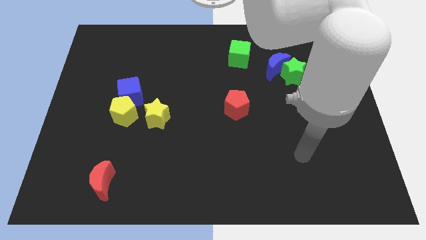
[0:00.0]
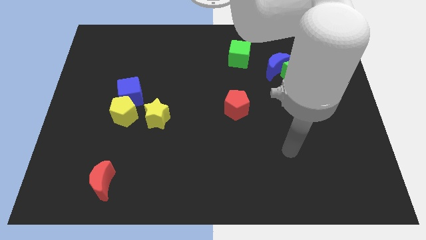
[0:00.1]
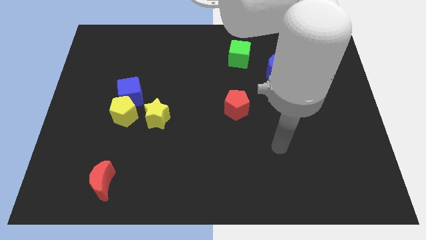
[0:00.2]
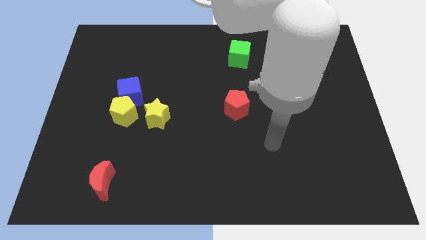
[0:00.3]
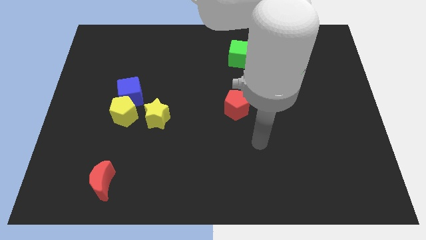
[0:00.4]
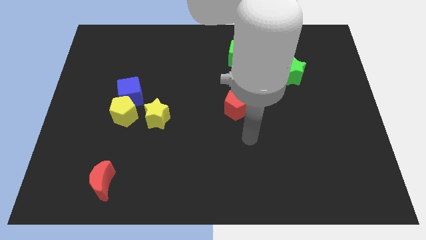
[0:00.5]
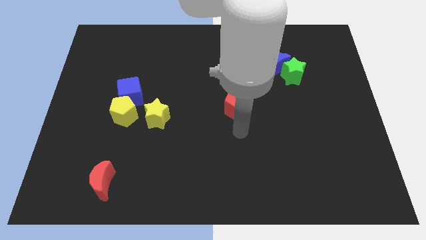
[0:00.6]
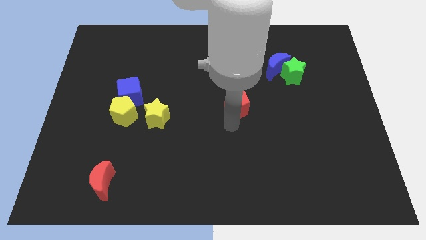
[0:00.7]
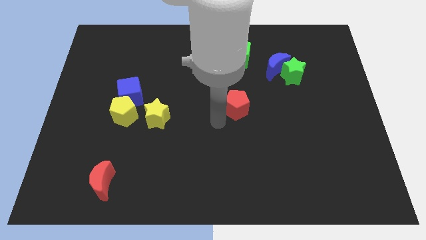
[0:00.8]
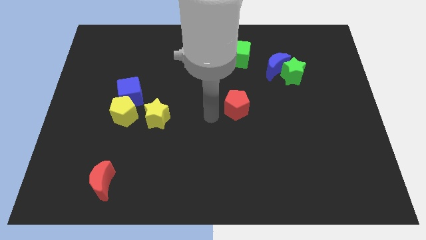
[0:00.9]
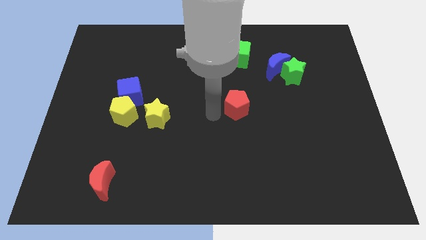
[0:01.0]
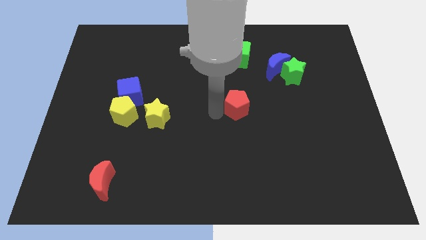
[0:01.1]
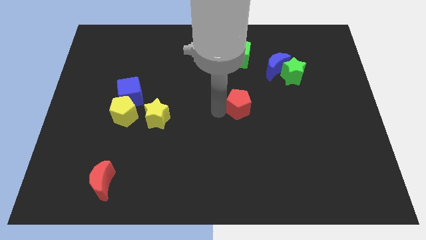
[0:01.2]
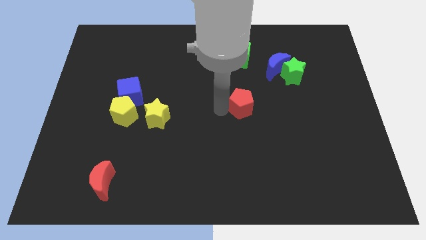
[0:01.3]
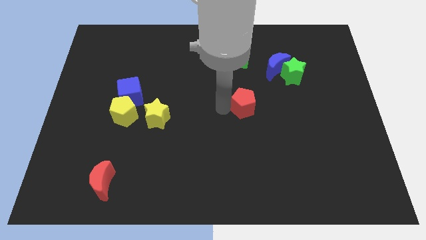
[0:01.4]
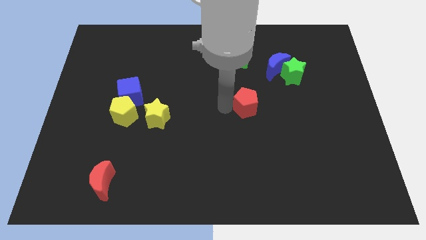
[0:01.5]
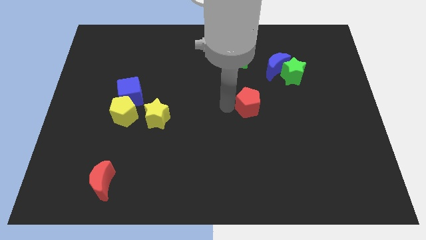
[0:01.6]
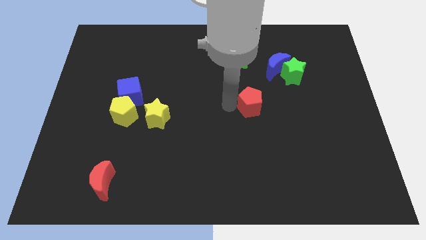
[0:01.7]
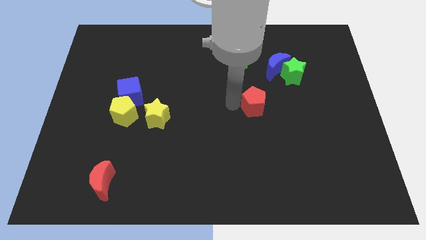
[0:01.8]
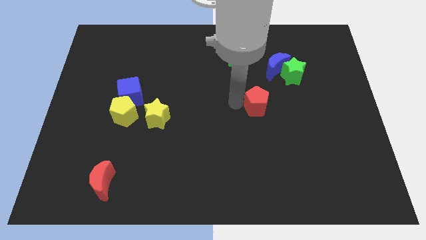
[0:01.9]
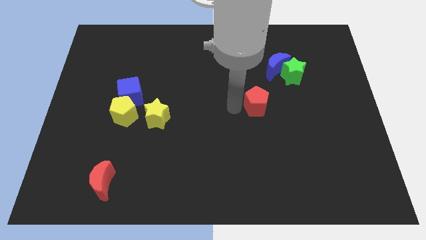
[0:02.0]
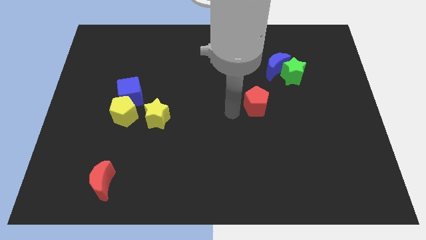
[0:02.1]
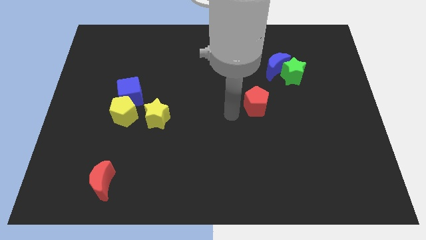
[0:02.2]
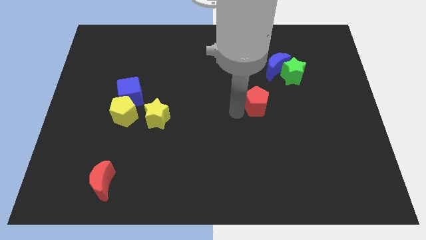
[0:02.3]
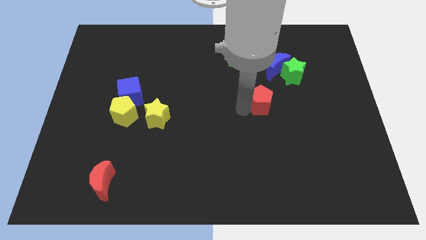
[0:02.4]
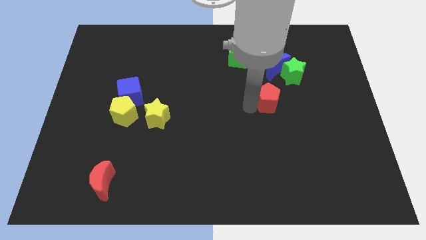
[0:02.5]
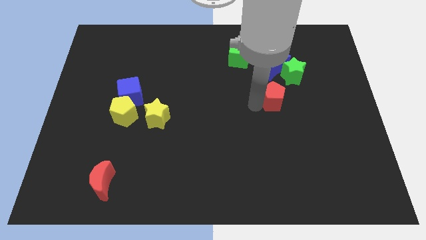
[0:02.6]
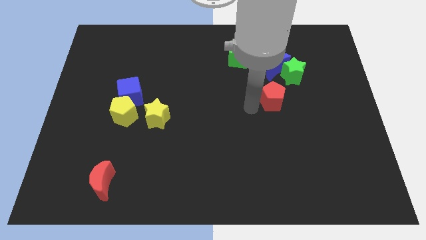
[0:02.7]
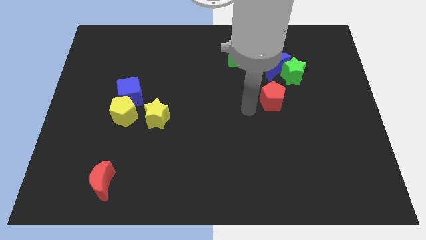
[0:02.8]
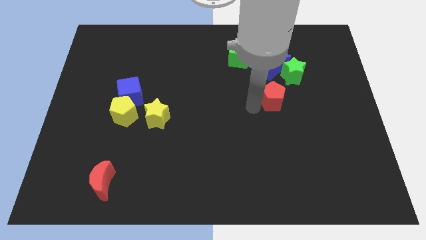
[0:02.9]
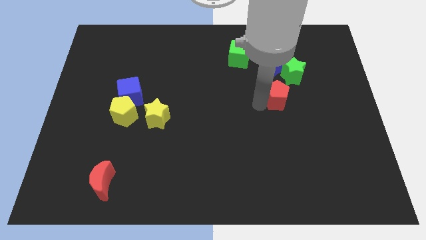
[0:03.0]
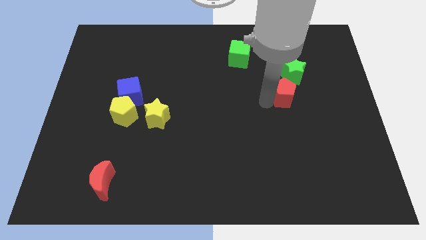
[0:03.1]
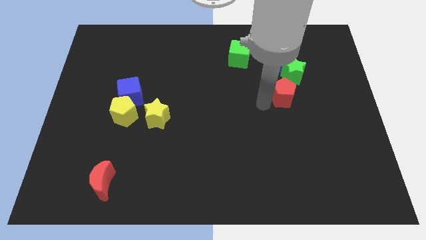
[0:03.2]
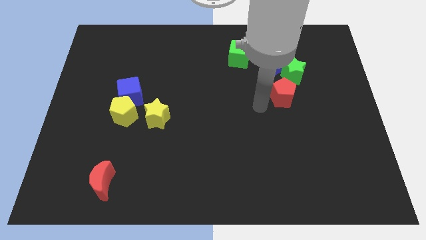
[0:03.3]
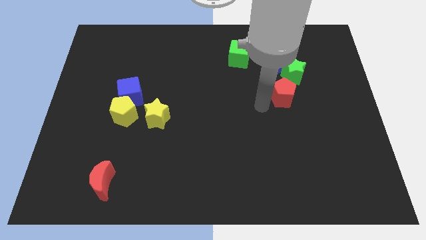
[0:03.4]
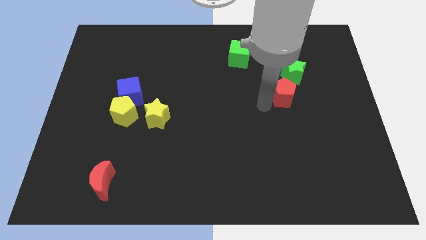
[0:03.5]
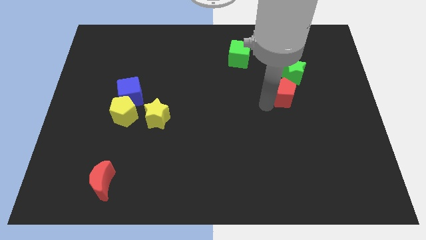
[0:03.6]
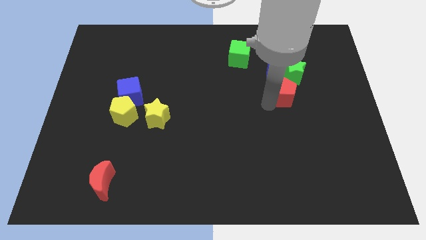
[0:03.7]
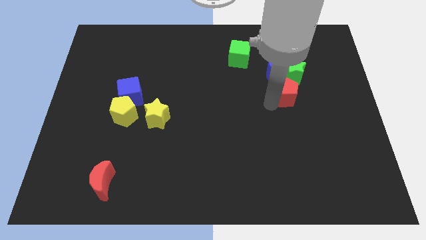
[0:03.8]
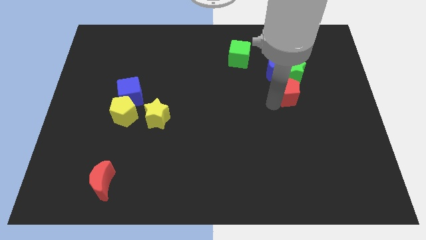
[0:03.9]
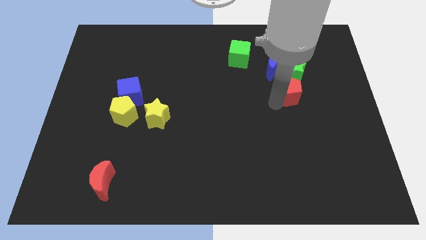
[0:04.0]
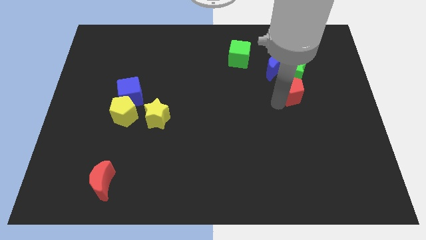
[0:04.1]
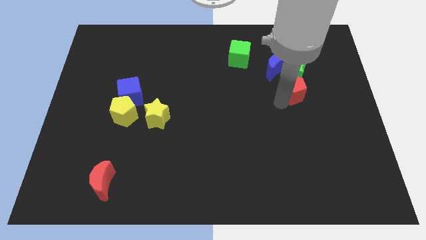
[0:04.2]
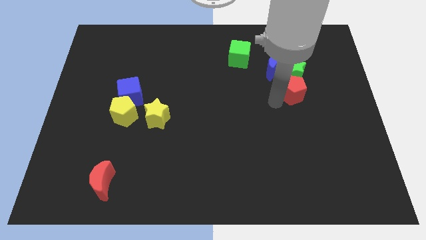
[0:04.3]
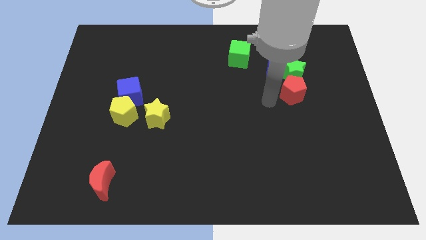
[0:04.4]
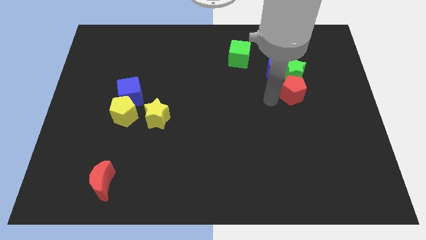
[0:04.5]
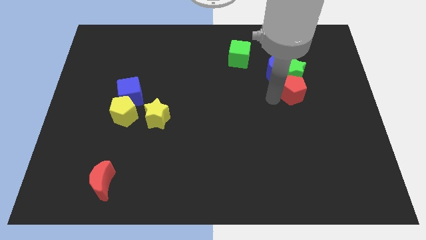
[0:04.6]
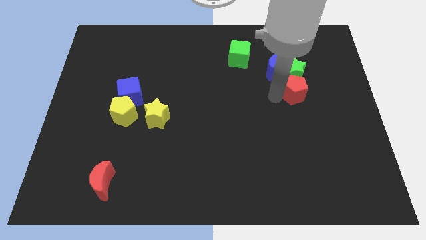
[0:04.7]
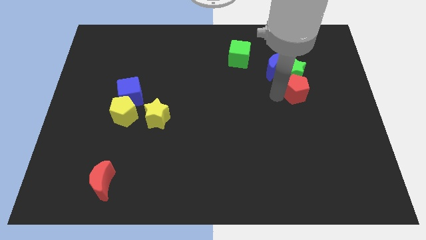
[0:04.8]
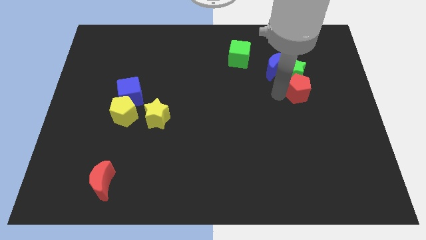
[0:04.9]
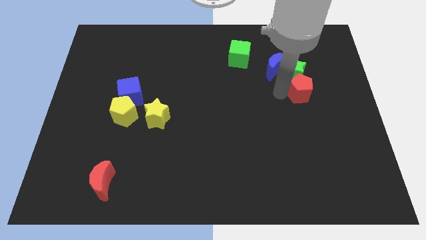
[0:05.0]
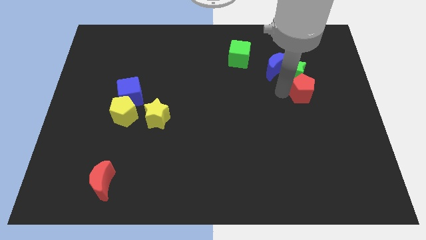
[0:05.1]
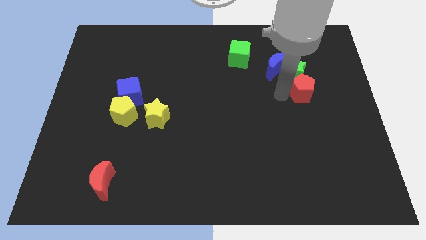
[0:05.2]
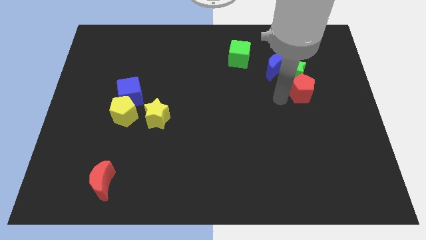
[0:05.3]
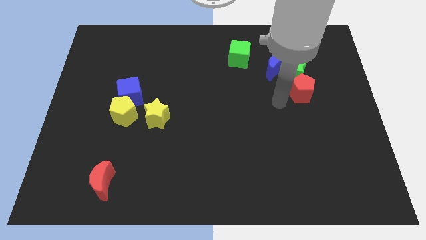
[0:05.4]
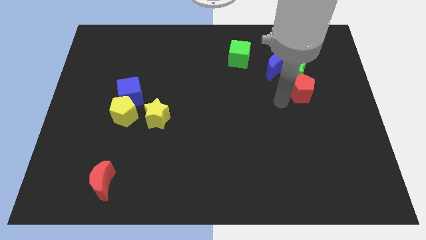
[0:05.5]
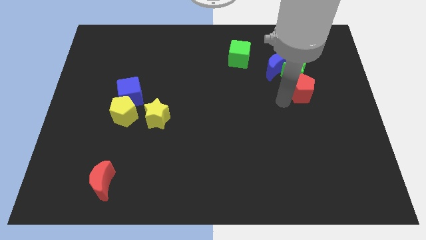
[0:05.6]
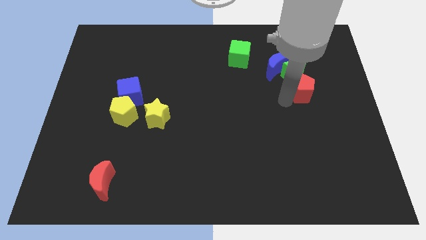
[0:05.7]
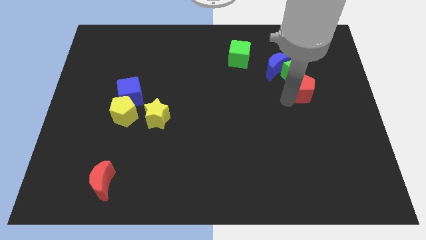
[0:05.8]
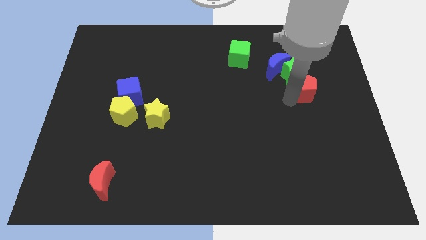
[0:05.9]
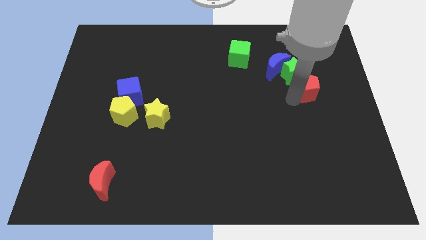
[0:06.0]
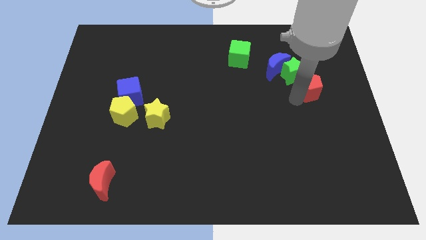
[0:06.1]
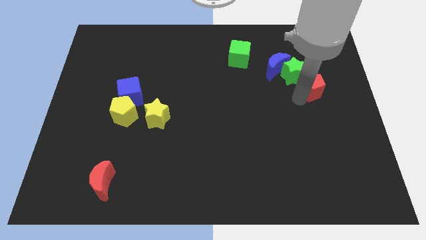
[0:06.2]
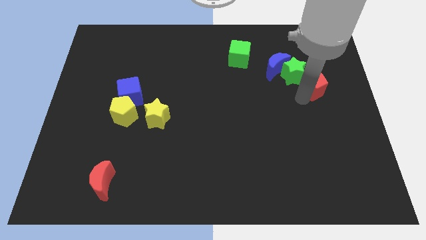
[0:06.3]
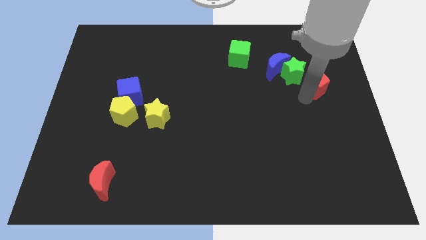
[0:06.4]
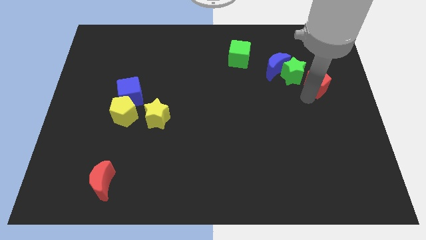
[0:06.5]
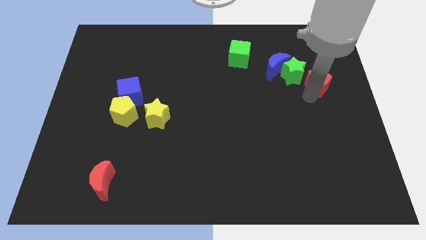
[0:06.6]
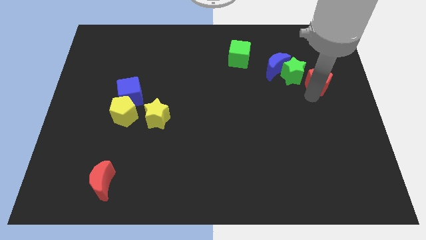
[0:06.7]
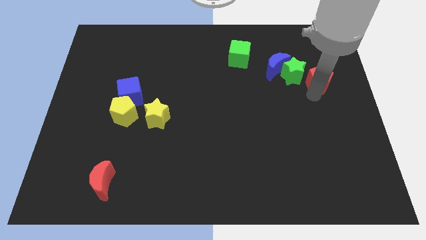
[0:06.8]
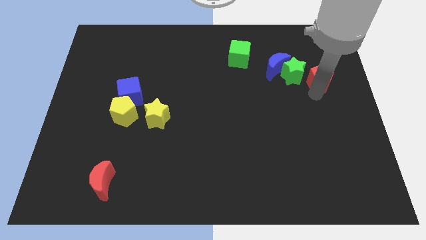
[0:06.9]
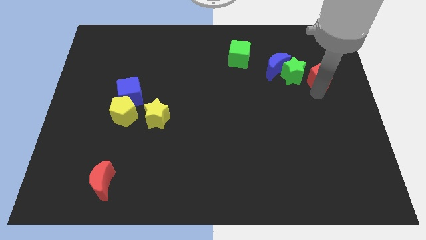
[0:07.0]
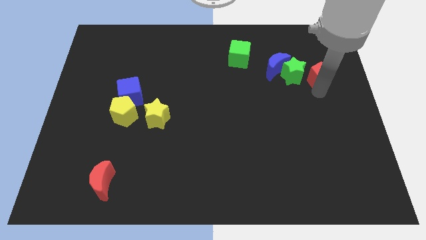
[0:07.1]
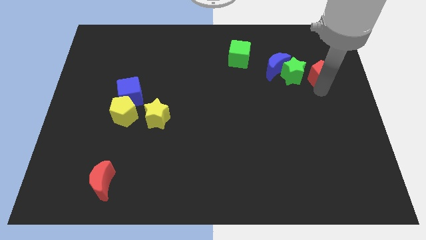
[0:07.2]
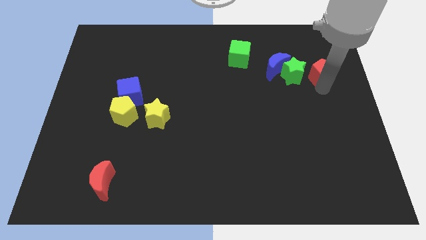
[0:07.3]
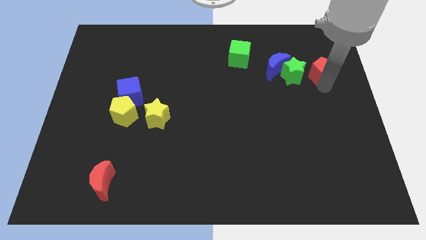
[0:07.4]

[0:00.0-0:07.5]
push the red pentagon diagonally up and to the right of the green star
